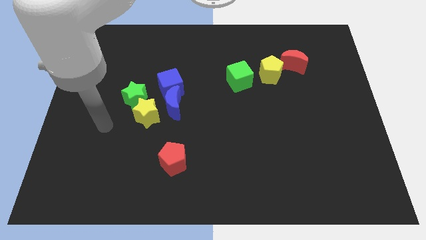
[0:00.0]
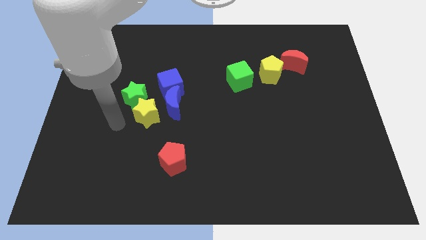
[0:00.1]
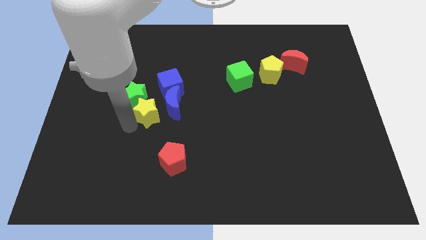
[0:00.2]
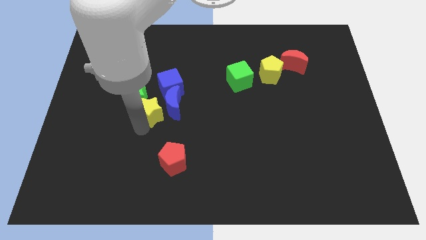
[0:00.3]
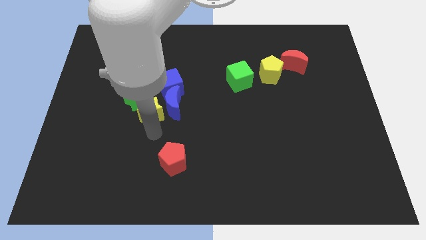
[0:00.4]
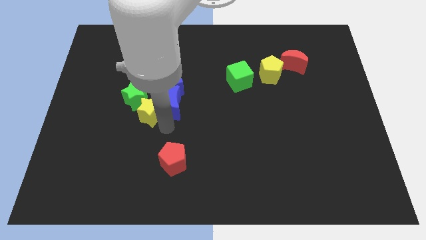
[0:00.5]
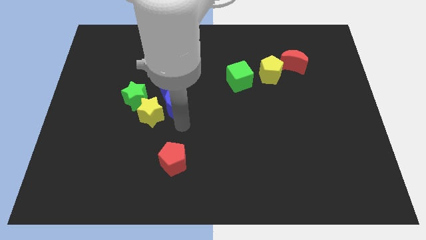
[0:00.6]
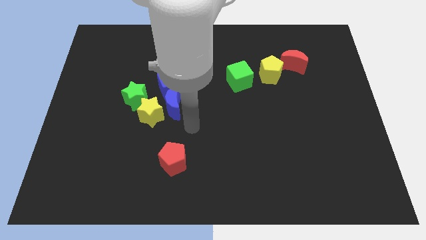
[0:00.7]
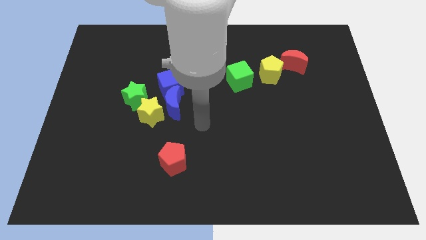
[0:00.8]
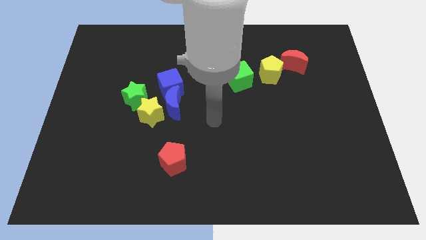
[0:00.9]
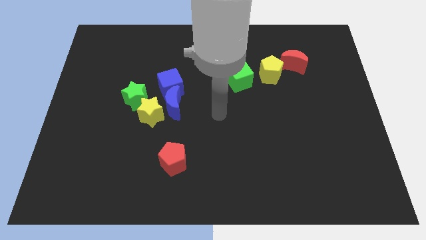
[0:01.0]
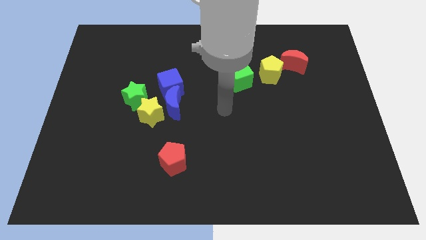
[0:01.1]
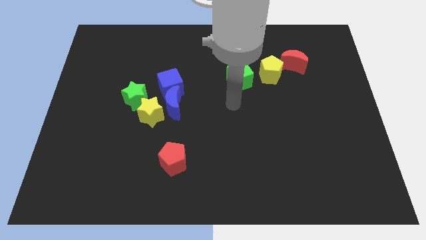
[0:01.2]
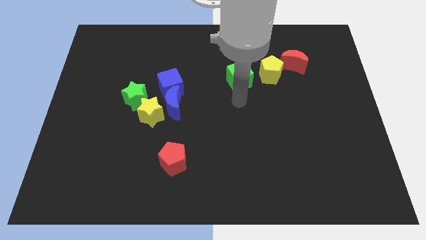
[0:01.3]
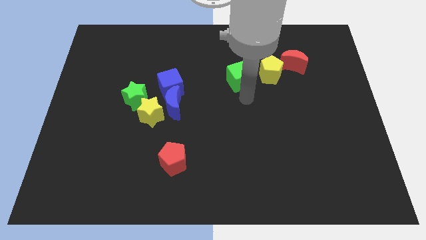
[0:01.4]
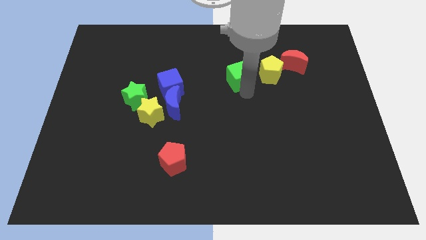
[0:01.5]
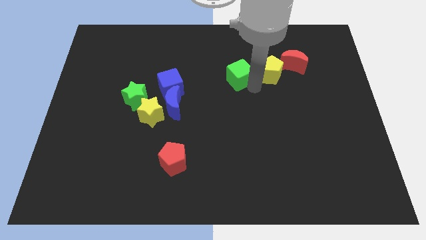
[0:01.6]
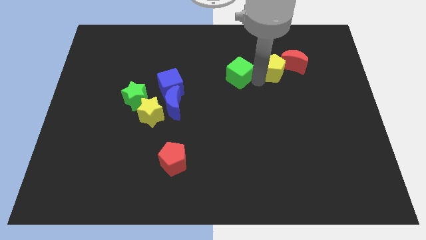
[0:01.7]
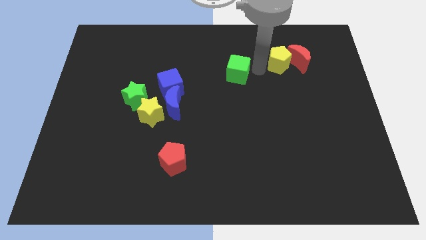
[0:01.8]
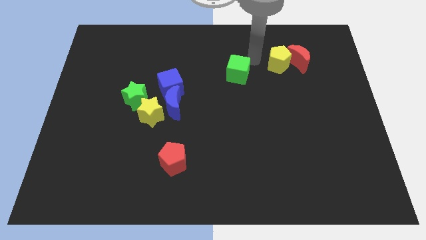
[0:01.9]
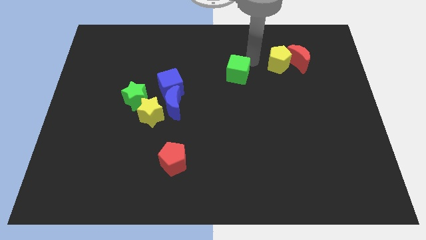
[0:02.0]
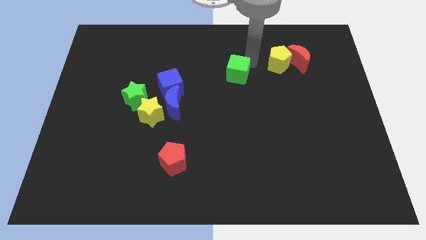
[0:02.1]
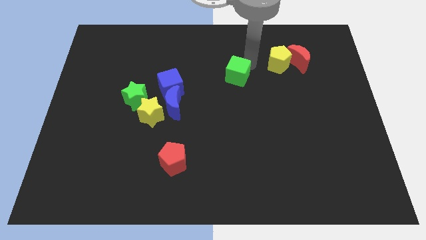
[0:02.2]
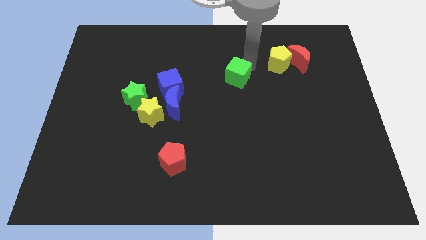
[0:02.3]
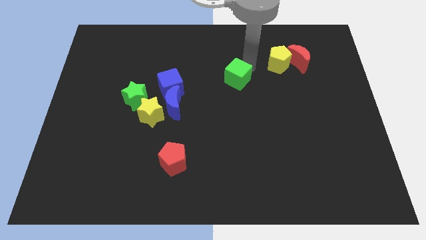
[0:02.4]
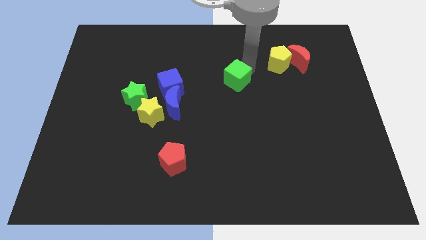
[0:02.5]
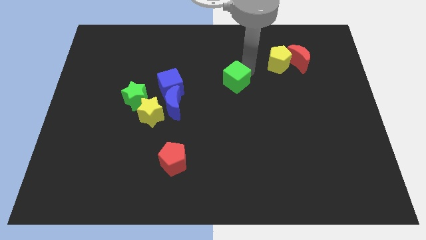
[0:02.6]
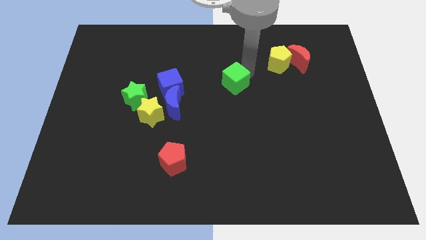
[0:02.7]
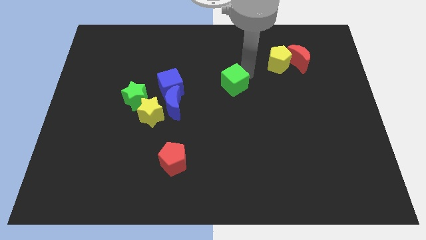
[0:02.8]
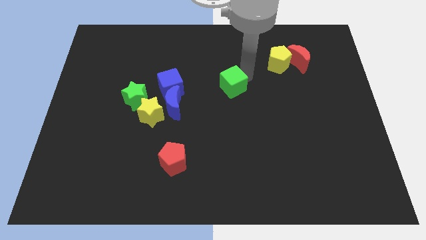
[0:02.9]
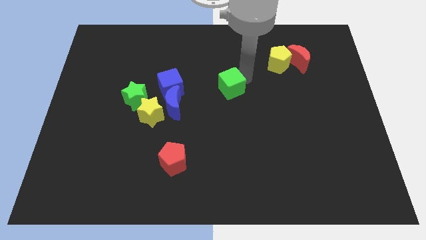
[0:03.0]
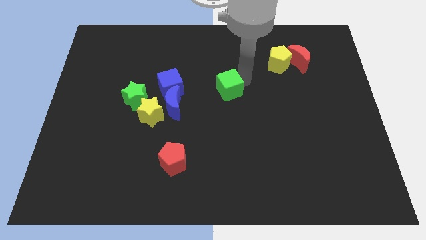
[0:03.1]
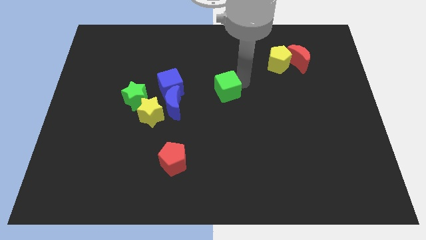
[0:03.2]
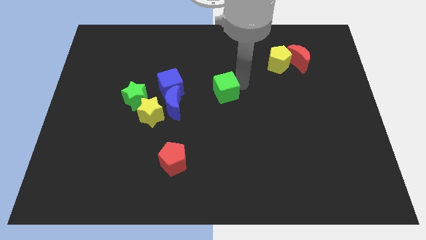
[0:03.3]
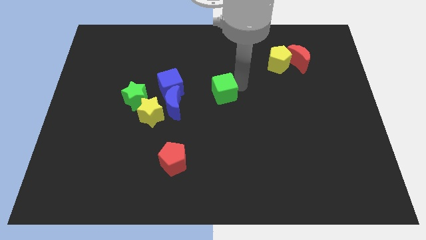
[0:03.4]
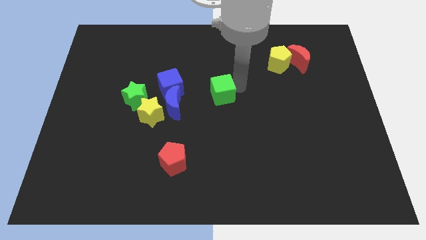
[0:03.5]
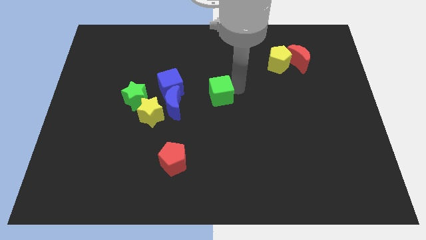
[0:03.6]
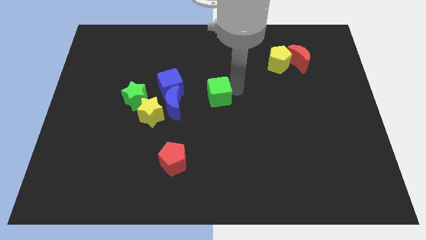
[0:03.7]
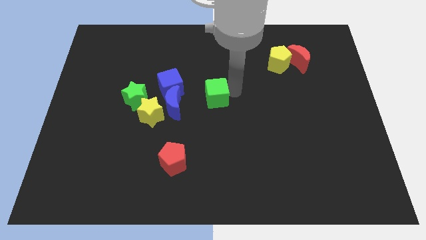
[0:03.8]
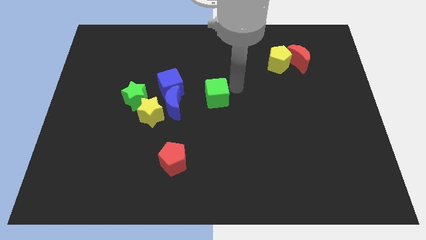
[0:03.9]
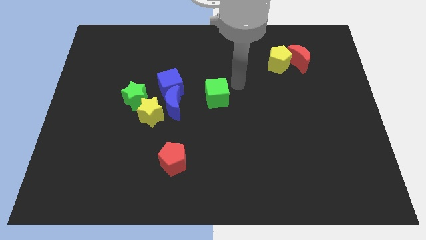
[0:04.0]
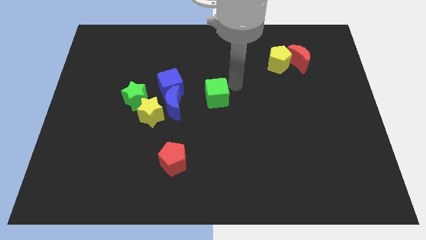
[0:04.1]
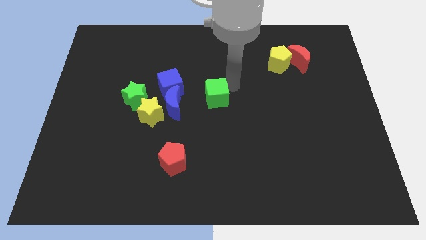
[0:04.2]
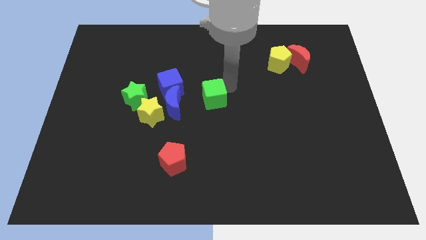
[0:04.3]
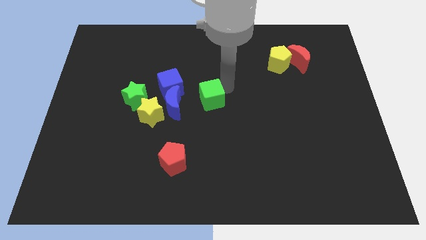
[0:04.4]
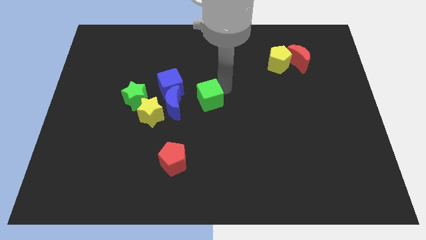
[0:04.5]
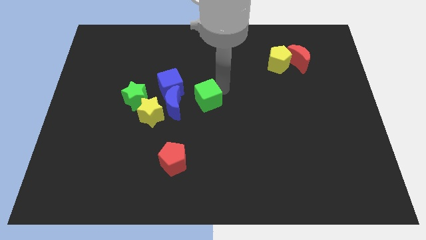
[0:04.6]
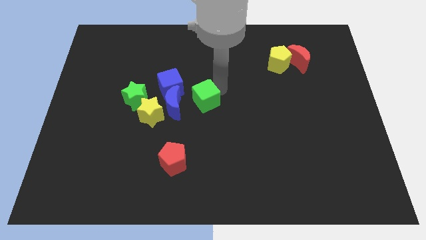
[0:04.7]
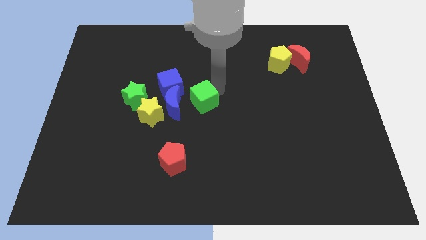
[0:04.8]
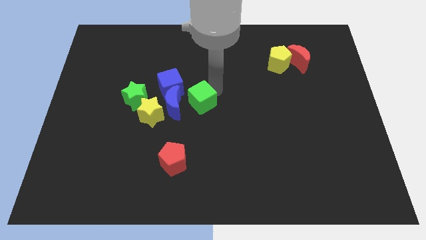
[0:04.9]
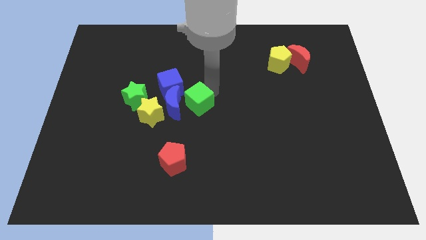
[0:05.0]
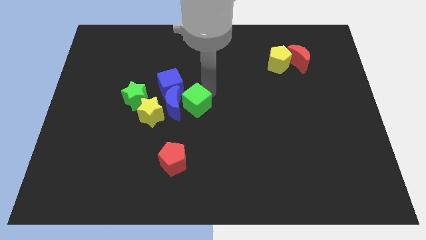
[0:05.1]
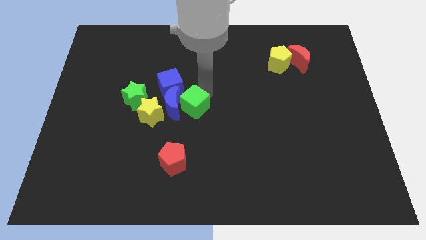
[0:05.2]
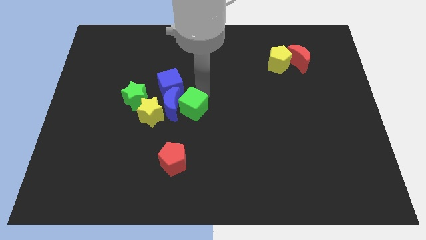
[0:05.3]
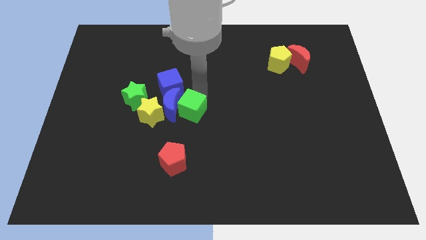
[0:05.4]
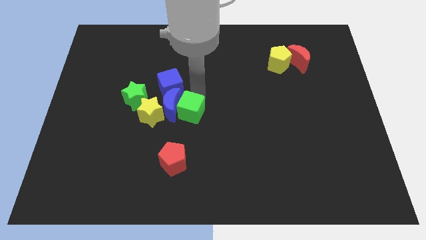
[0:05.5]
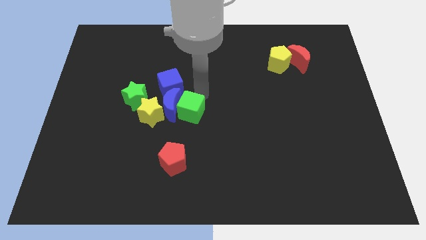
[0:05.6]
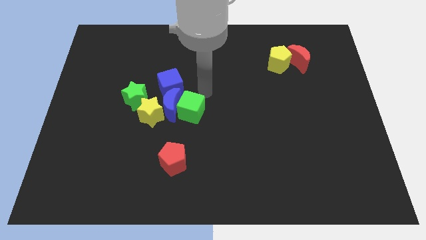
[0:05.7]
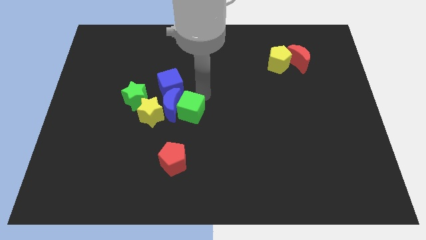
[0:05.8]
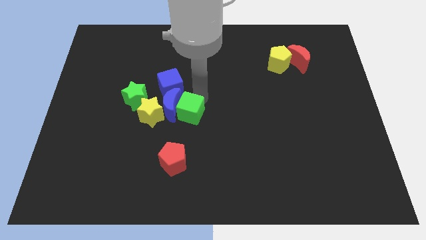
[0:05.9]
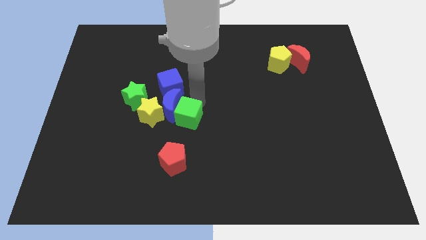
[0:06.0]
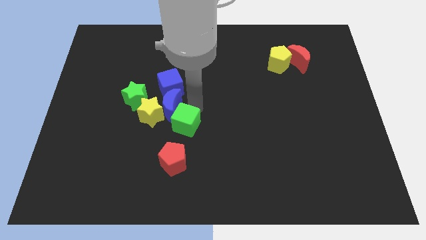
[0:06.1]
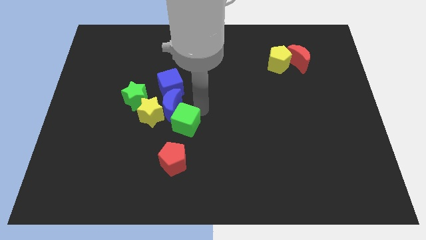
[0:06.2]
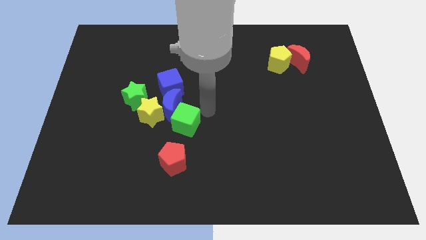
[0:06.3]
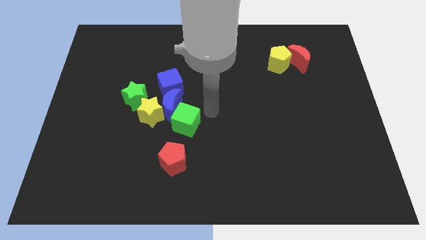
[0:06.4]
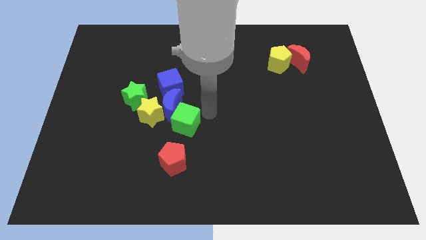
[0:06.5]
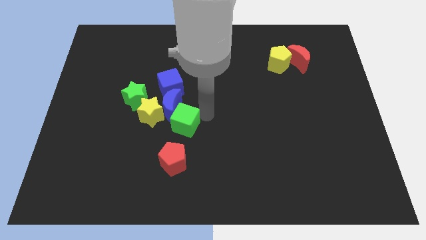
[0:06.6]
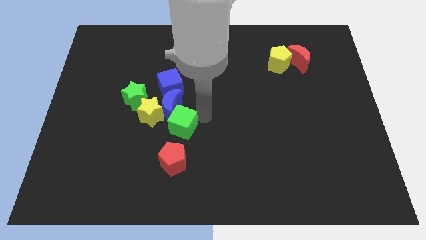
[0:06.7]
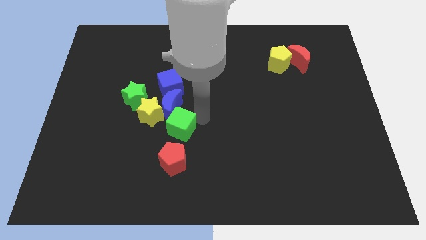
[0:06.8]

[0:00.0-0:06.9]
push the green cube diagonally downwards and left

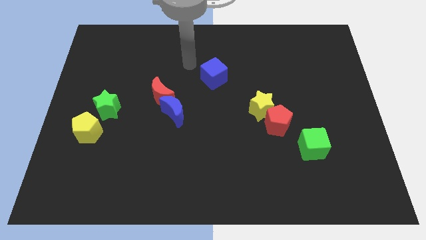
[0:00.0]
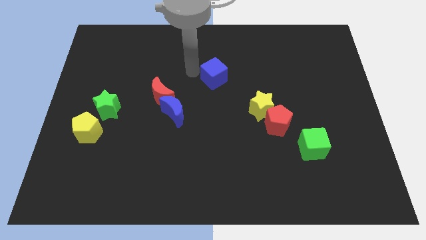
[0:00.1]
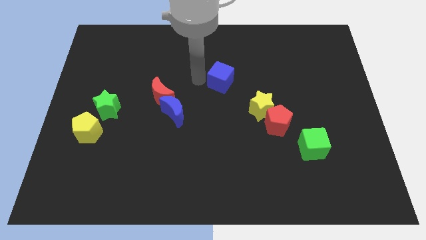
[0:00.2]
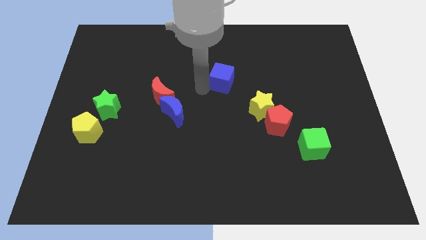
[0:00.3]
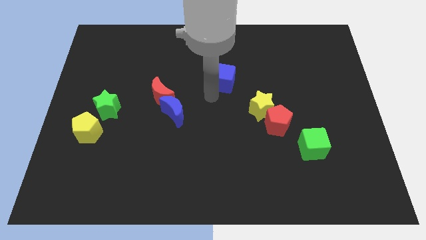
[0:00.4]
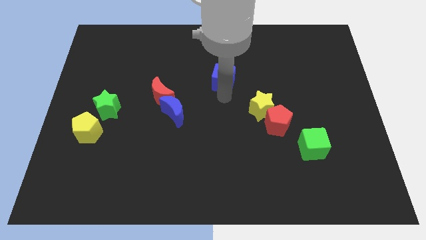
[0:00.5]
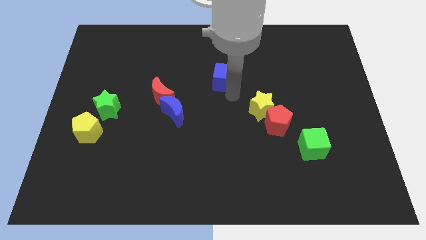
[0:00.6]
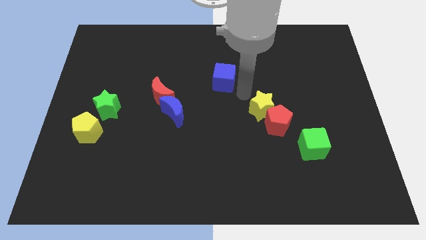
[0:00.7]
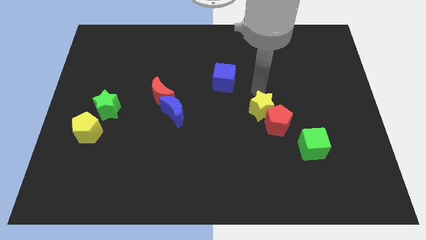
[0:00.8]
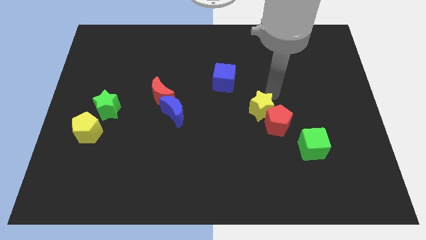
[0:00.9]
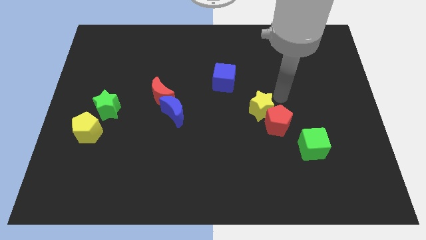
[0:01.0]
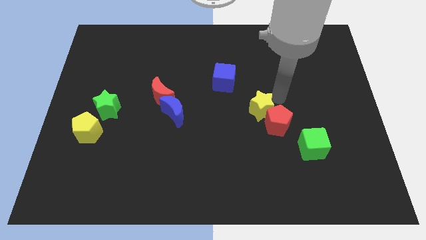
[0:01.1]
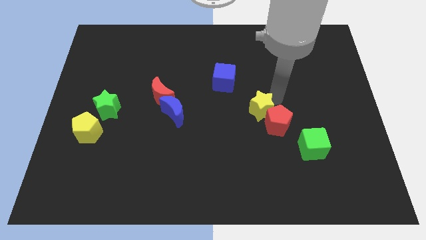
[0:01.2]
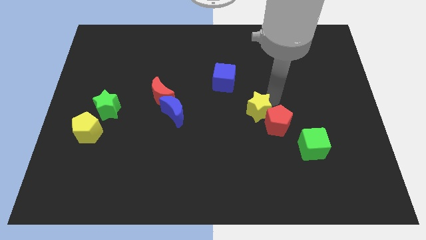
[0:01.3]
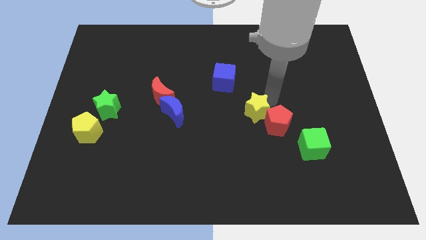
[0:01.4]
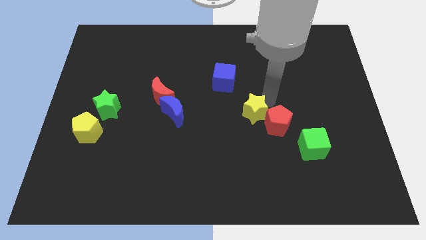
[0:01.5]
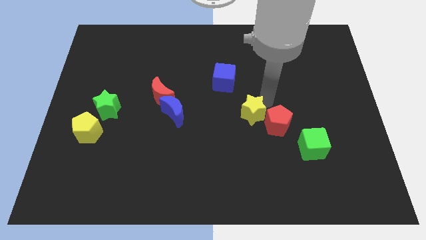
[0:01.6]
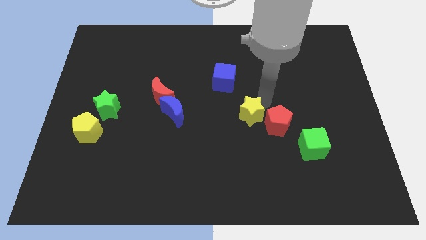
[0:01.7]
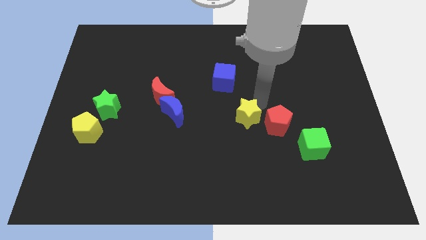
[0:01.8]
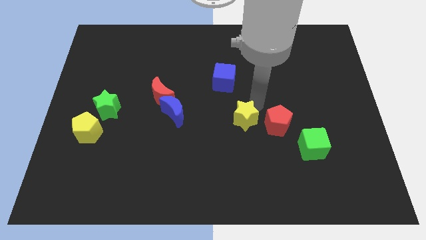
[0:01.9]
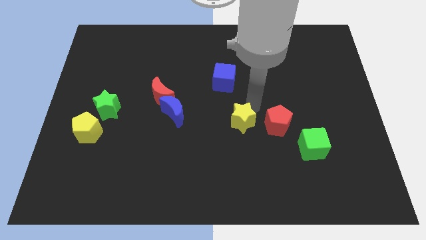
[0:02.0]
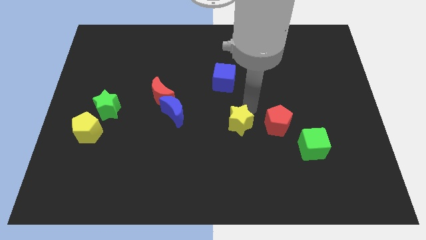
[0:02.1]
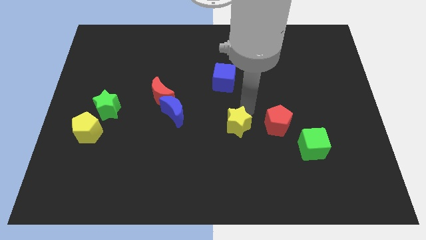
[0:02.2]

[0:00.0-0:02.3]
move the yellow star down and then to the left somewhat
